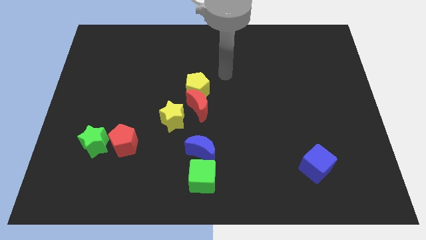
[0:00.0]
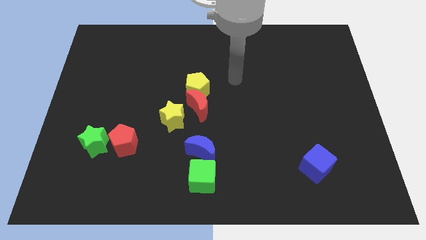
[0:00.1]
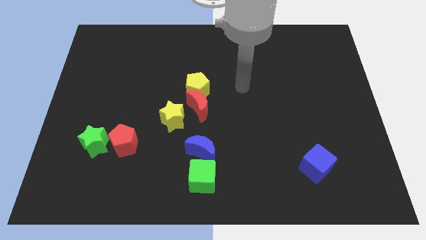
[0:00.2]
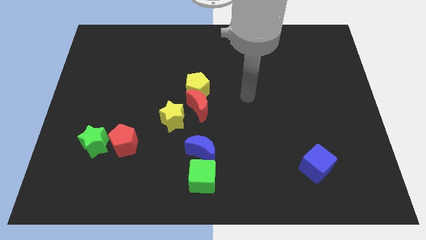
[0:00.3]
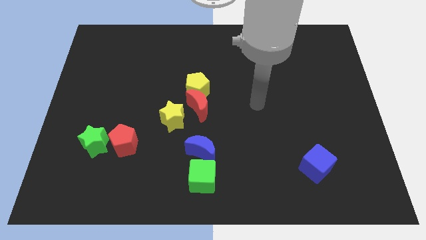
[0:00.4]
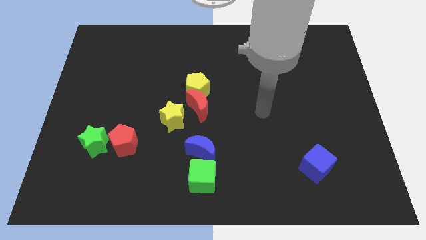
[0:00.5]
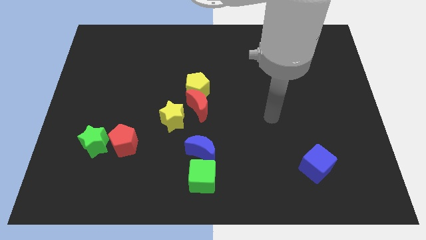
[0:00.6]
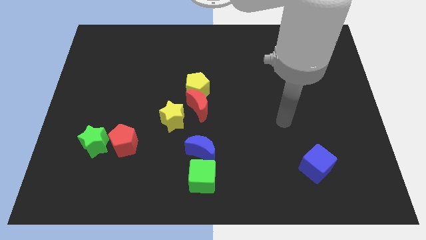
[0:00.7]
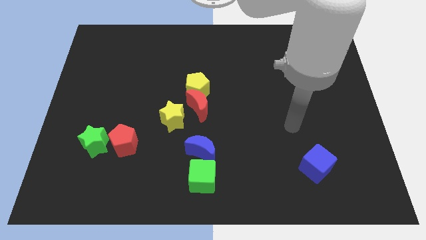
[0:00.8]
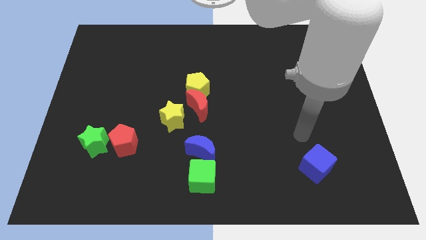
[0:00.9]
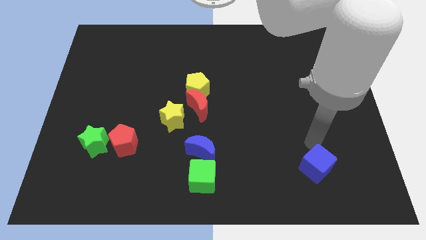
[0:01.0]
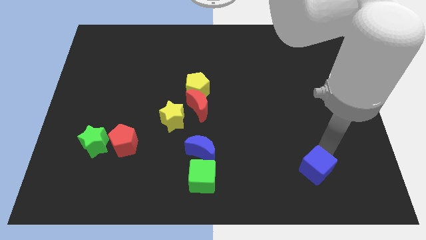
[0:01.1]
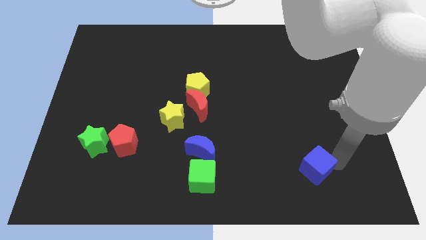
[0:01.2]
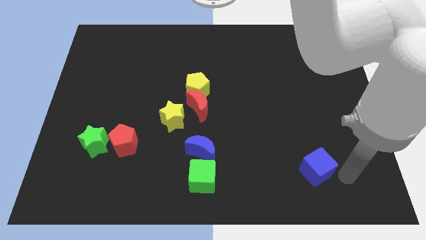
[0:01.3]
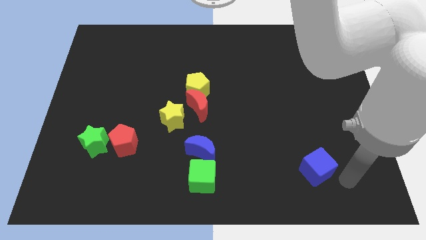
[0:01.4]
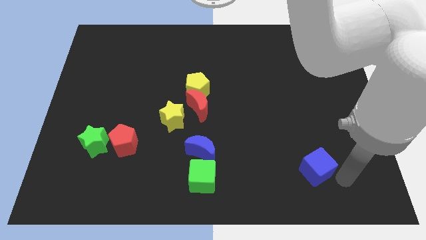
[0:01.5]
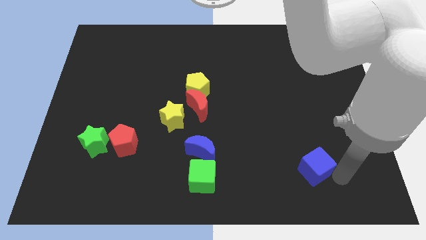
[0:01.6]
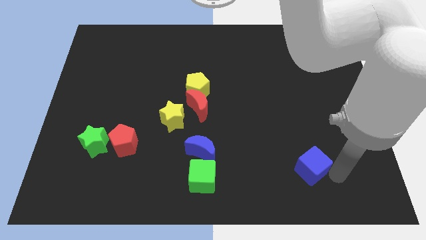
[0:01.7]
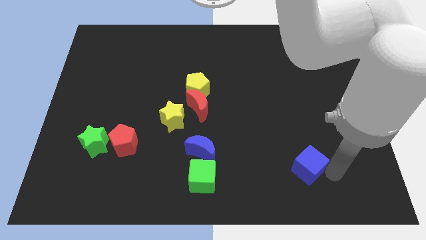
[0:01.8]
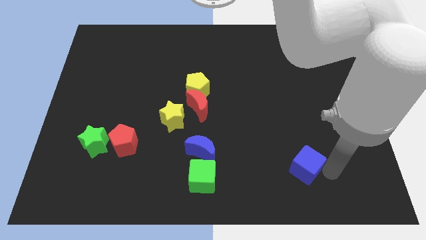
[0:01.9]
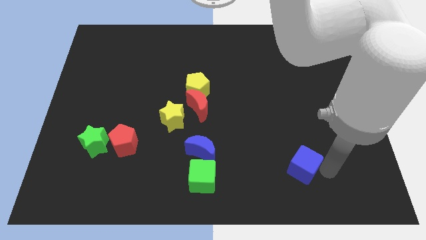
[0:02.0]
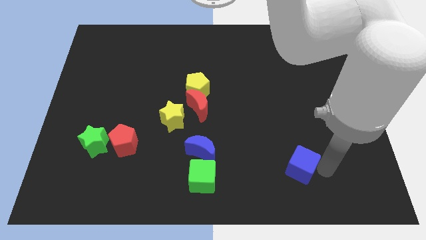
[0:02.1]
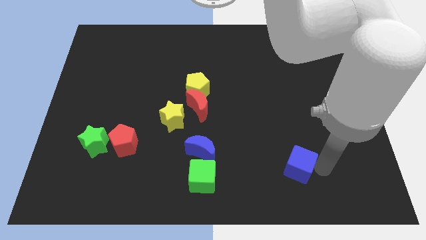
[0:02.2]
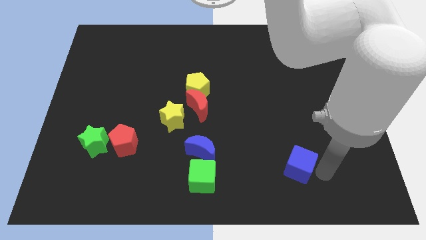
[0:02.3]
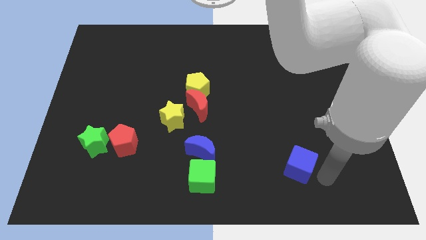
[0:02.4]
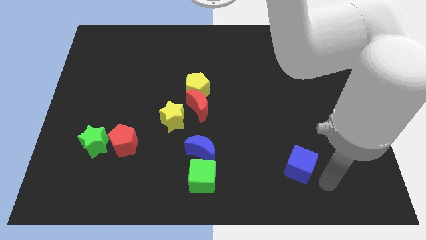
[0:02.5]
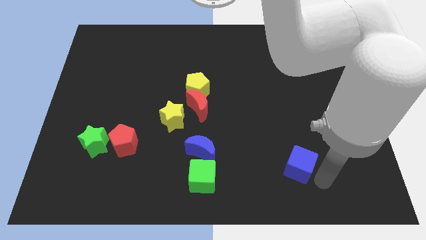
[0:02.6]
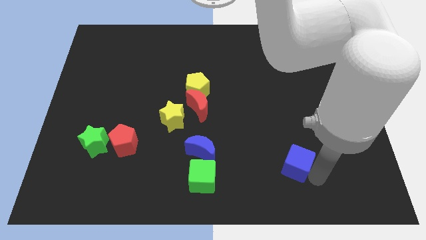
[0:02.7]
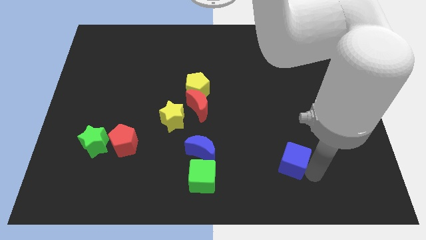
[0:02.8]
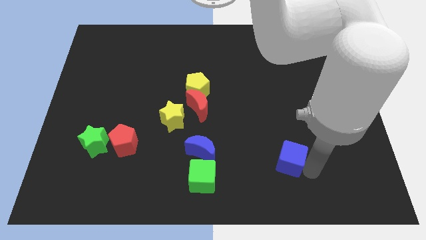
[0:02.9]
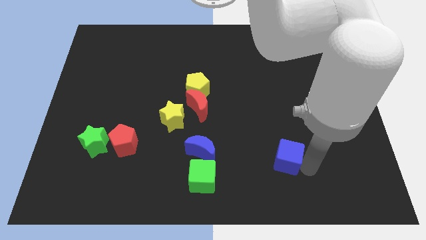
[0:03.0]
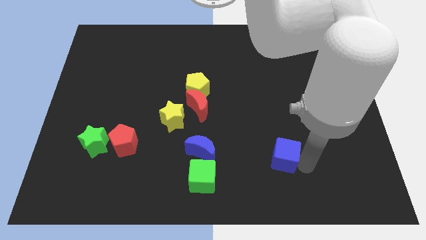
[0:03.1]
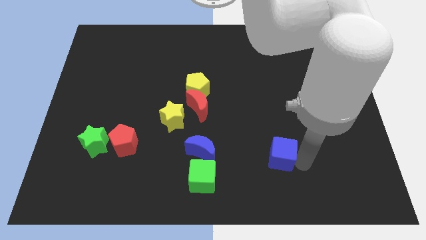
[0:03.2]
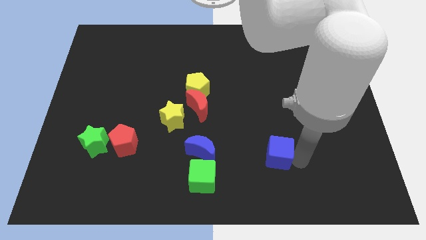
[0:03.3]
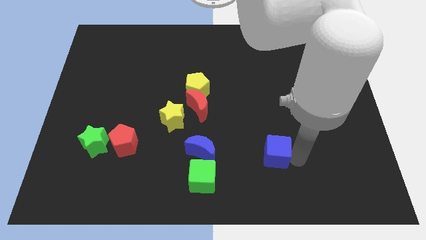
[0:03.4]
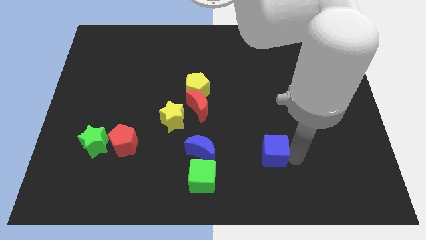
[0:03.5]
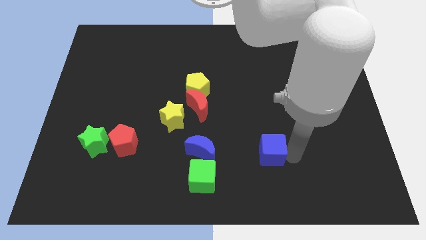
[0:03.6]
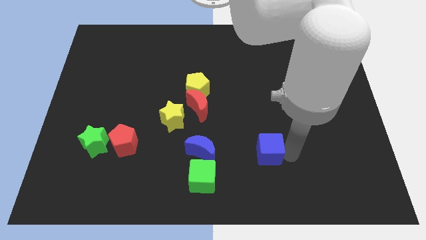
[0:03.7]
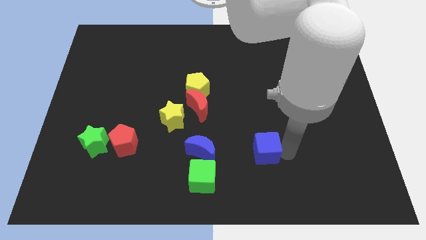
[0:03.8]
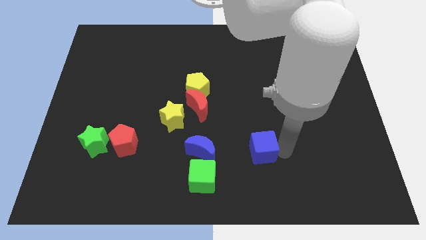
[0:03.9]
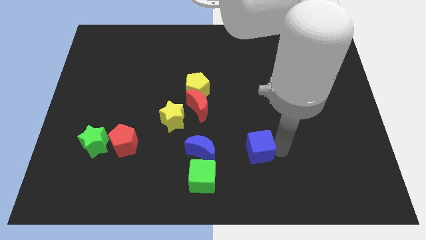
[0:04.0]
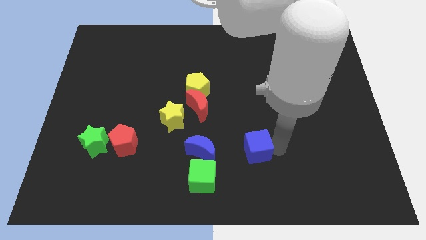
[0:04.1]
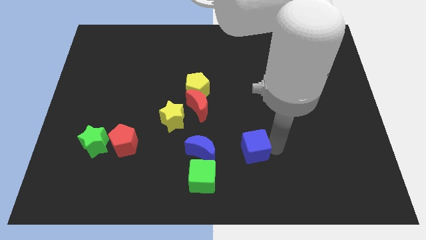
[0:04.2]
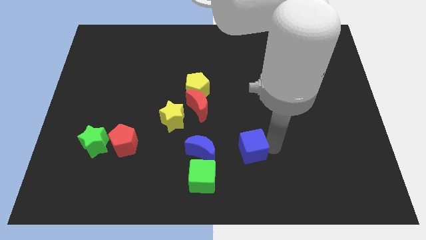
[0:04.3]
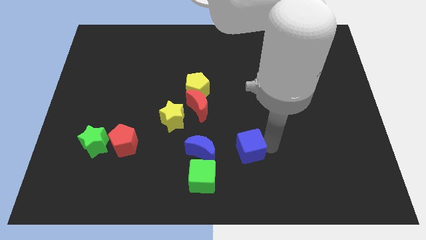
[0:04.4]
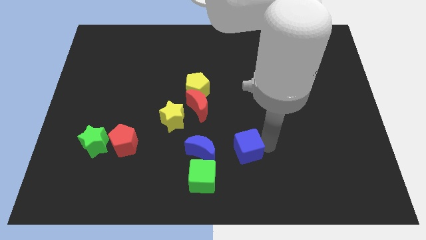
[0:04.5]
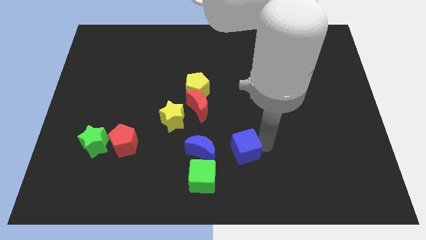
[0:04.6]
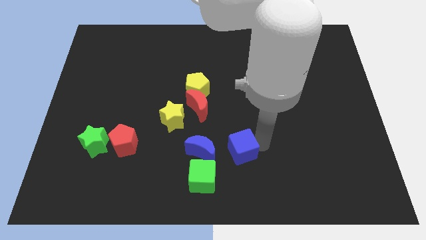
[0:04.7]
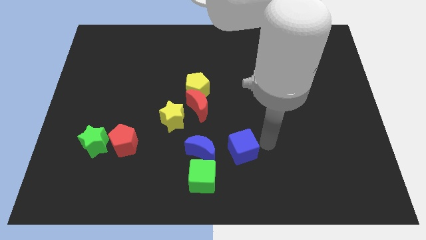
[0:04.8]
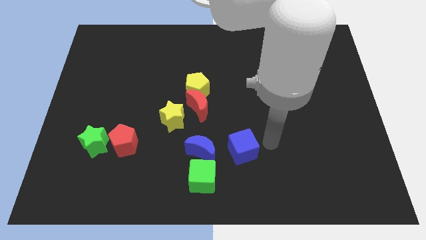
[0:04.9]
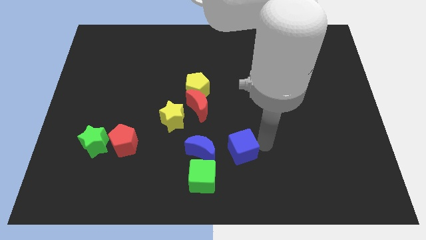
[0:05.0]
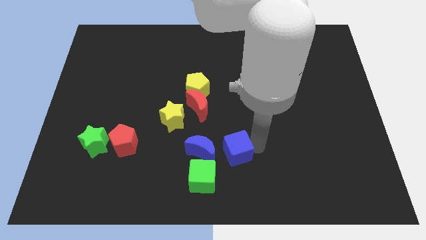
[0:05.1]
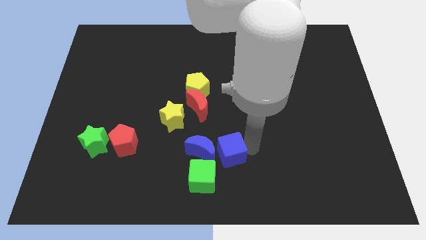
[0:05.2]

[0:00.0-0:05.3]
move the blue cube towards the blue moon

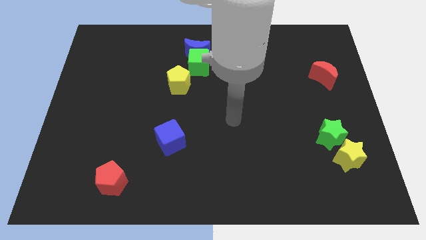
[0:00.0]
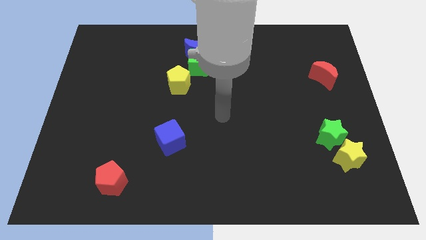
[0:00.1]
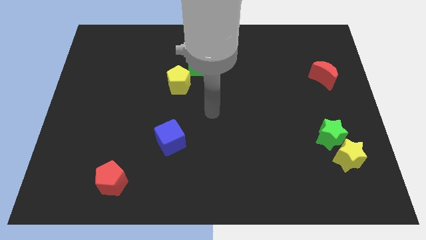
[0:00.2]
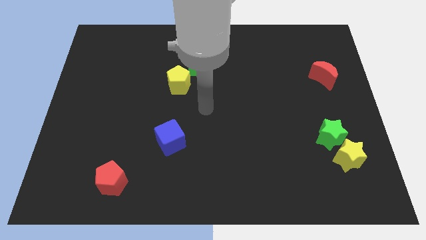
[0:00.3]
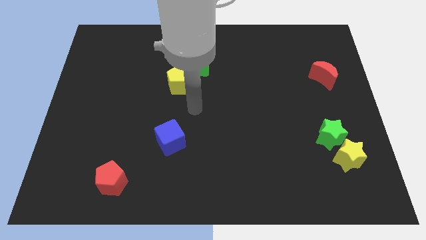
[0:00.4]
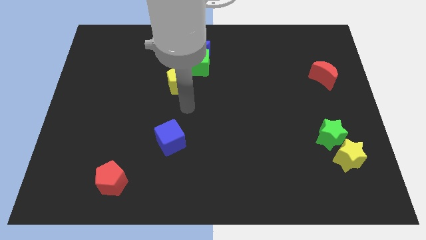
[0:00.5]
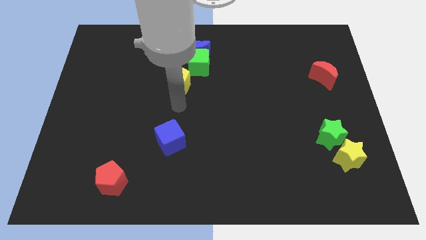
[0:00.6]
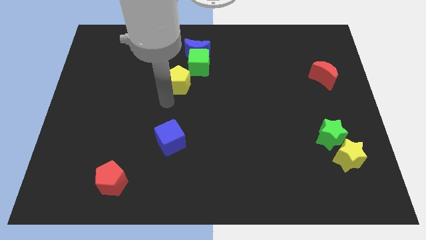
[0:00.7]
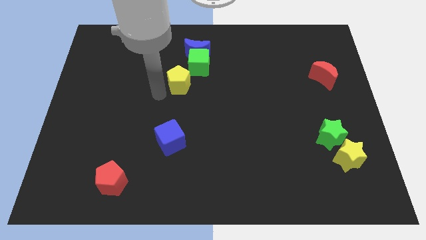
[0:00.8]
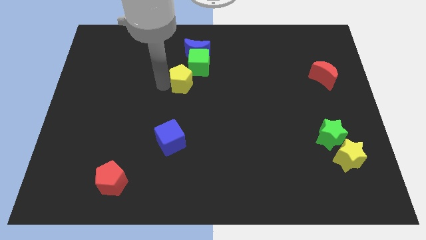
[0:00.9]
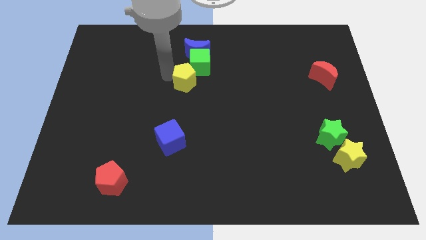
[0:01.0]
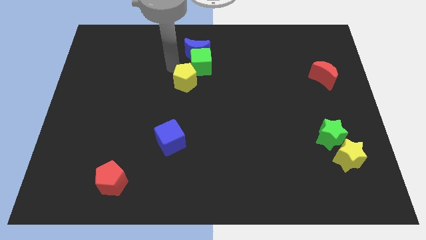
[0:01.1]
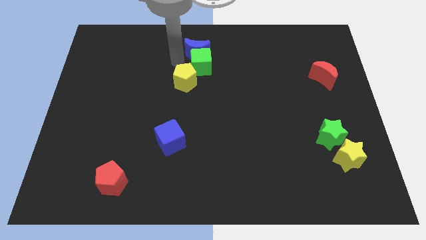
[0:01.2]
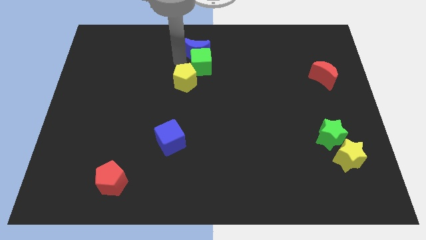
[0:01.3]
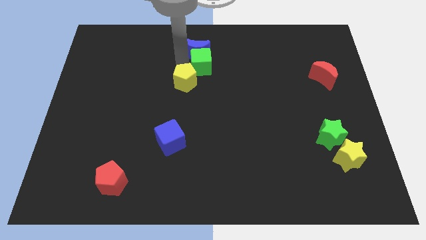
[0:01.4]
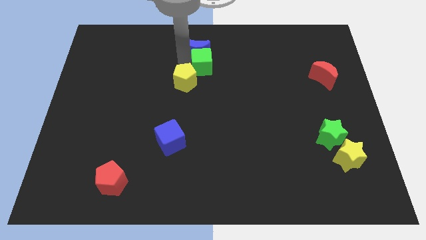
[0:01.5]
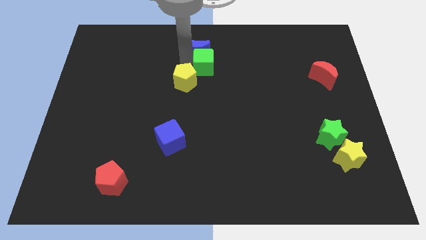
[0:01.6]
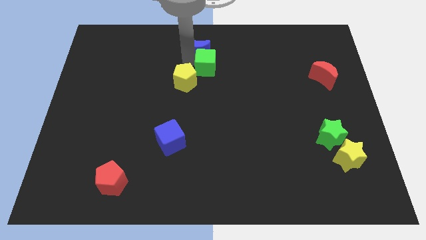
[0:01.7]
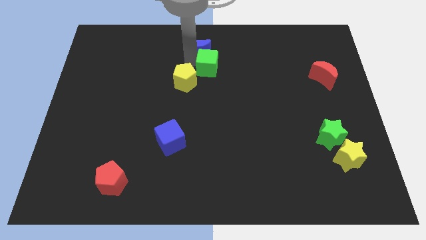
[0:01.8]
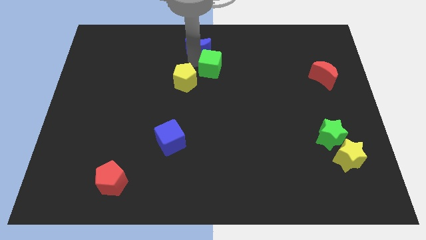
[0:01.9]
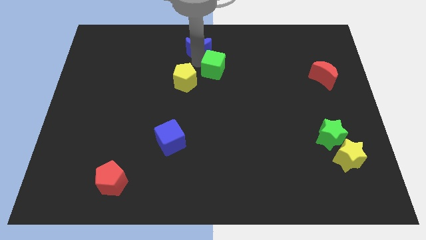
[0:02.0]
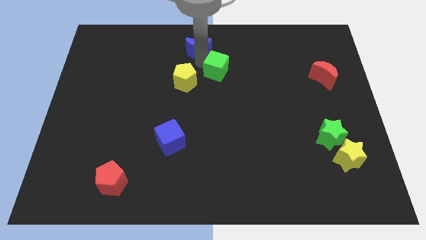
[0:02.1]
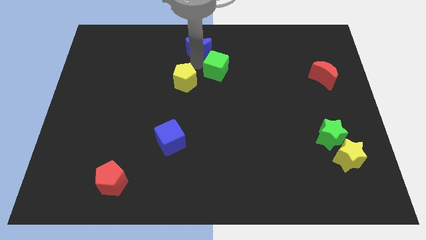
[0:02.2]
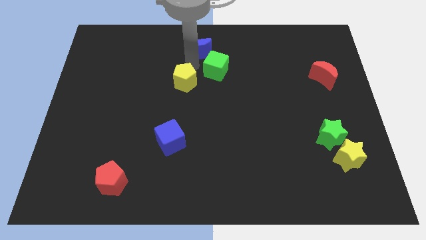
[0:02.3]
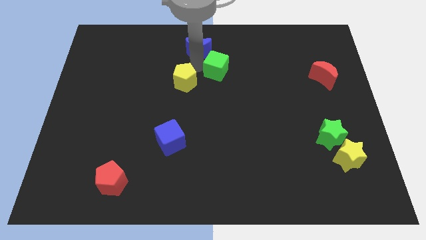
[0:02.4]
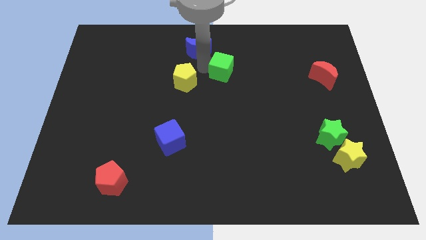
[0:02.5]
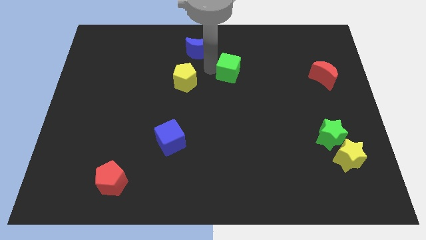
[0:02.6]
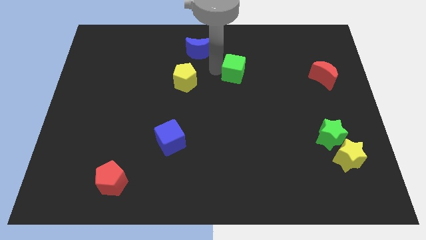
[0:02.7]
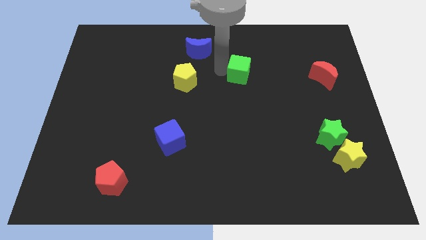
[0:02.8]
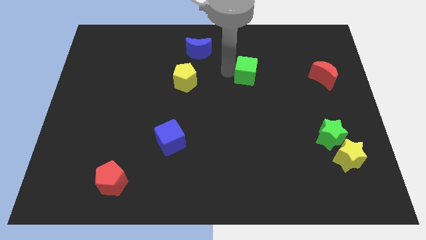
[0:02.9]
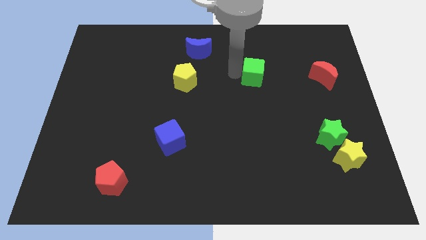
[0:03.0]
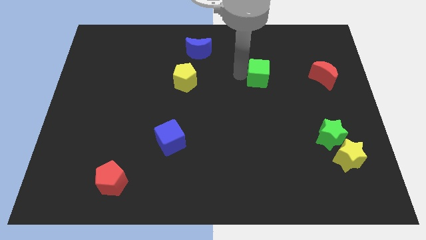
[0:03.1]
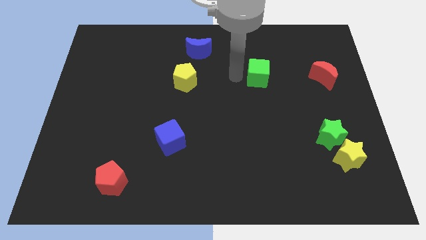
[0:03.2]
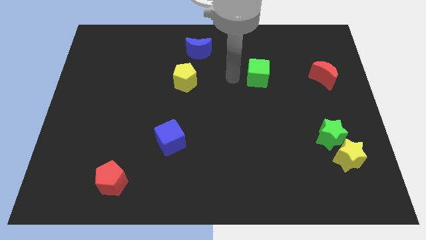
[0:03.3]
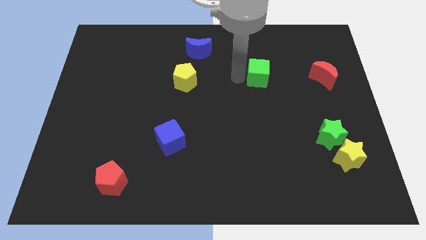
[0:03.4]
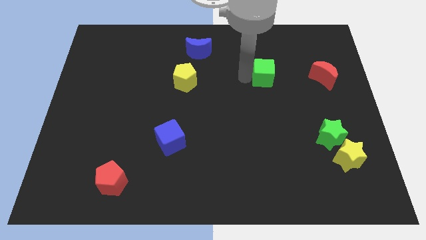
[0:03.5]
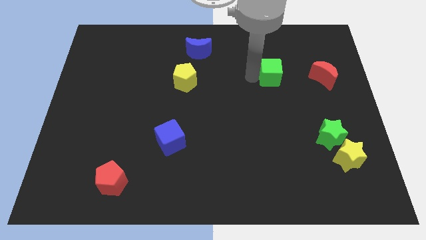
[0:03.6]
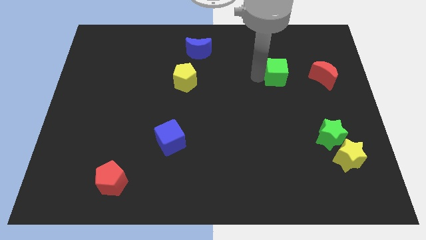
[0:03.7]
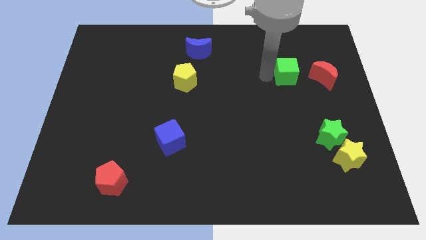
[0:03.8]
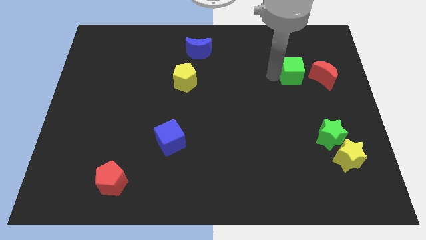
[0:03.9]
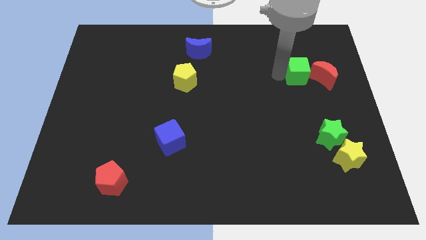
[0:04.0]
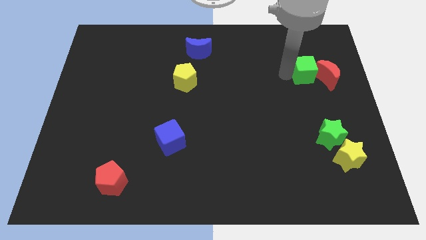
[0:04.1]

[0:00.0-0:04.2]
push the green cube next to the red moon
